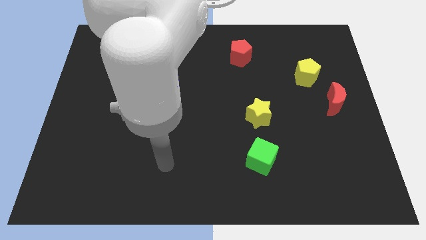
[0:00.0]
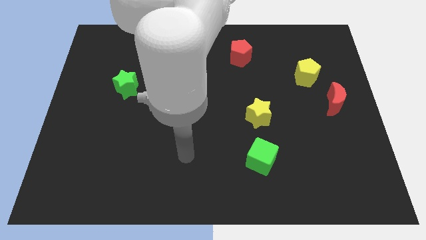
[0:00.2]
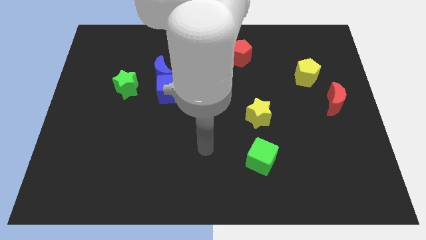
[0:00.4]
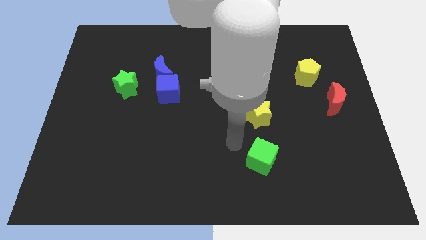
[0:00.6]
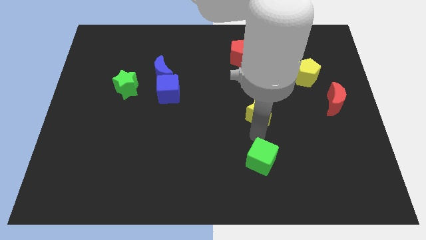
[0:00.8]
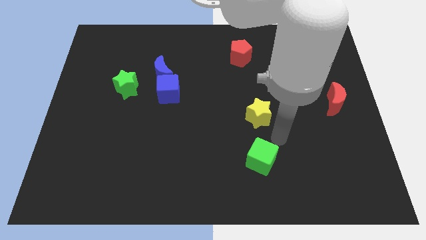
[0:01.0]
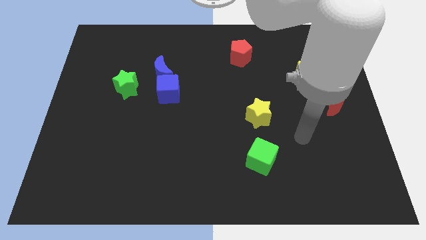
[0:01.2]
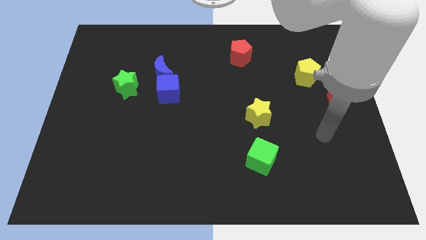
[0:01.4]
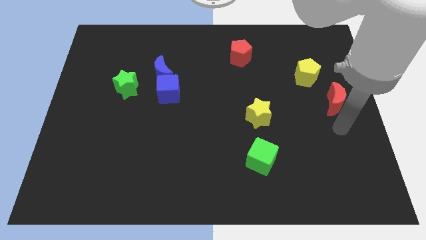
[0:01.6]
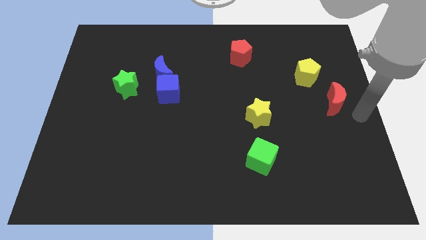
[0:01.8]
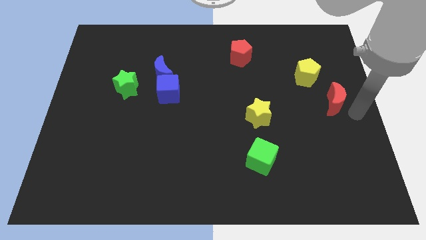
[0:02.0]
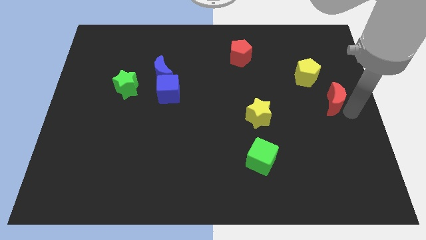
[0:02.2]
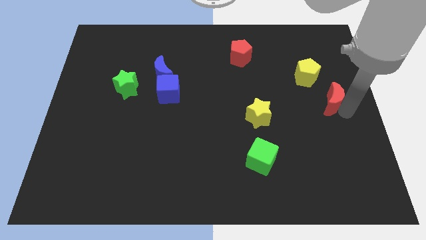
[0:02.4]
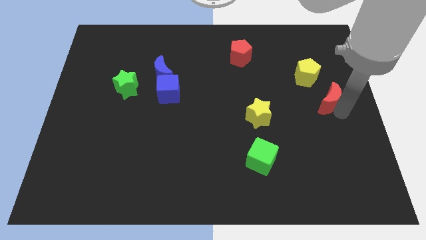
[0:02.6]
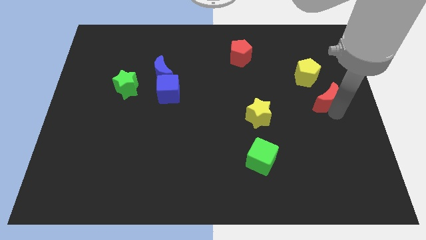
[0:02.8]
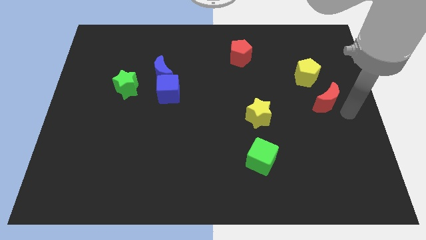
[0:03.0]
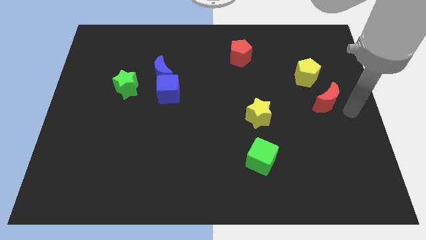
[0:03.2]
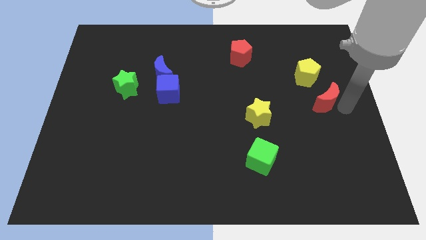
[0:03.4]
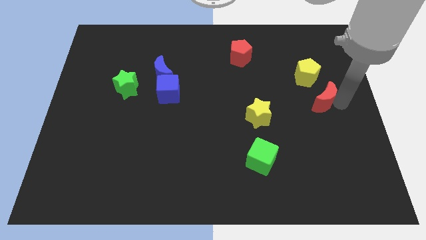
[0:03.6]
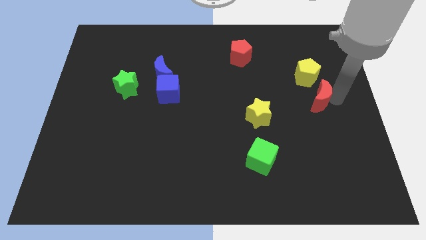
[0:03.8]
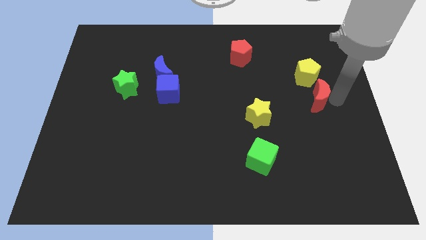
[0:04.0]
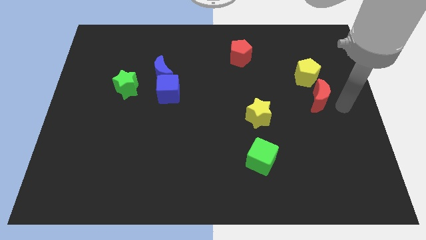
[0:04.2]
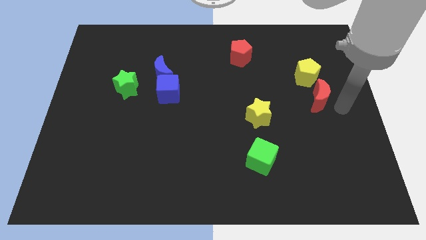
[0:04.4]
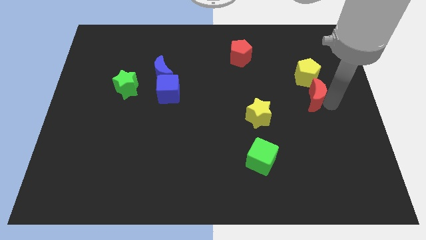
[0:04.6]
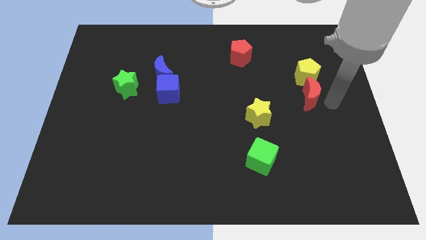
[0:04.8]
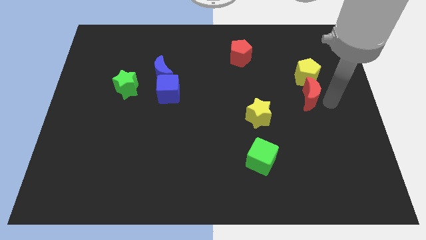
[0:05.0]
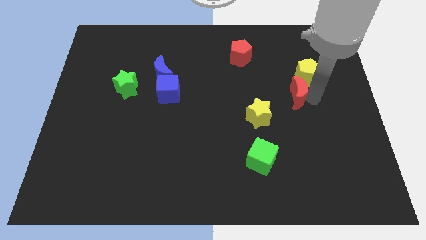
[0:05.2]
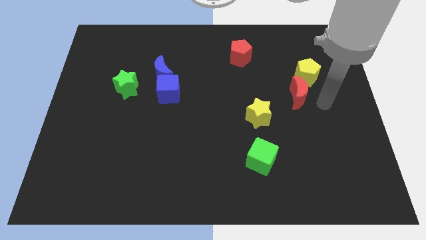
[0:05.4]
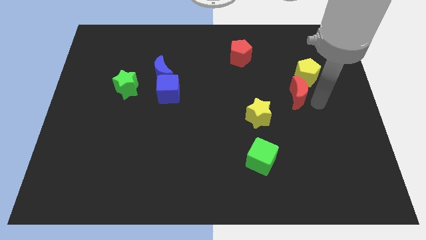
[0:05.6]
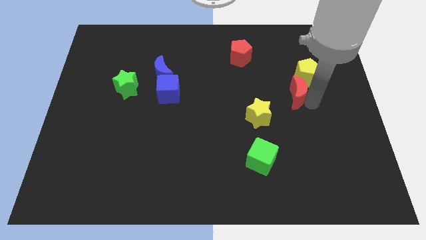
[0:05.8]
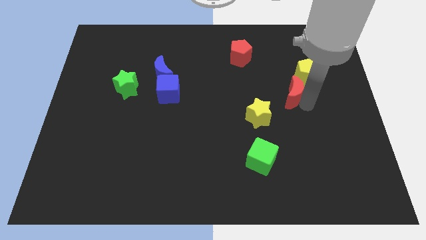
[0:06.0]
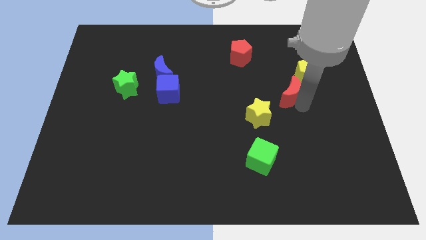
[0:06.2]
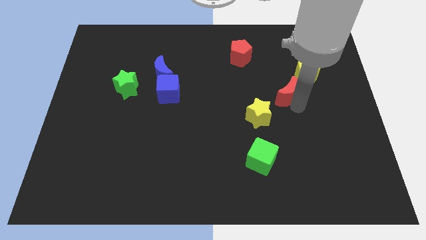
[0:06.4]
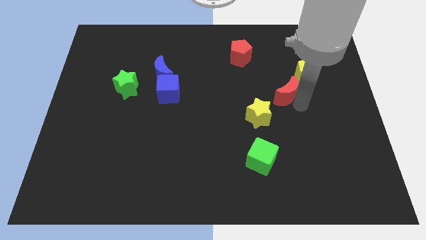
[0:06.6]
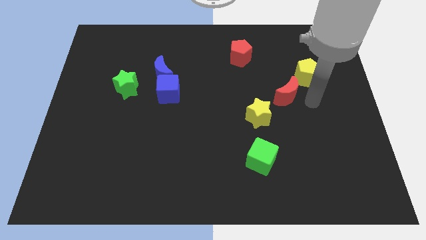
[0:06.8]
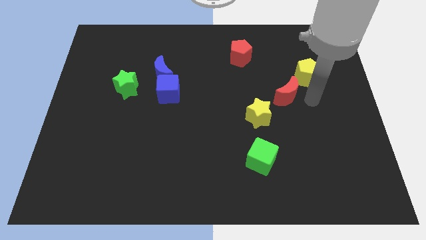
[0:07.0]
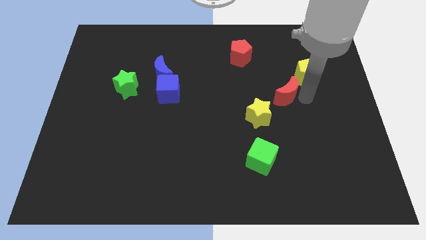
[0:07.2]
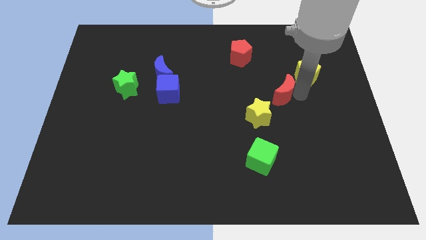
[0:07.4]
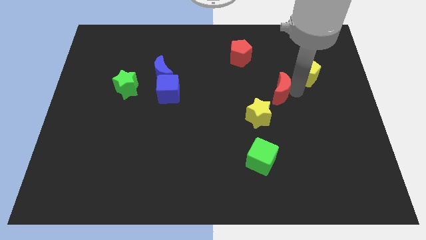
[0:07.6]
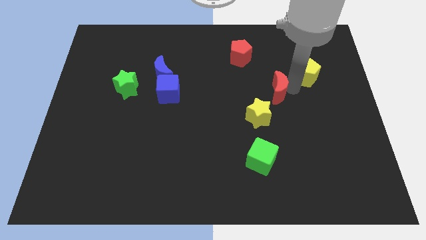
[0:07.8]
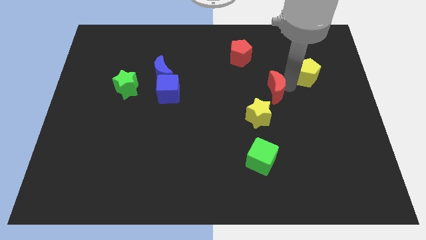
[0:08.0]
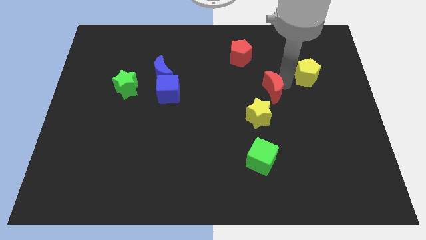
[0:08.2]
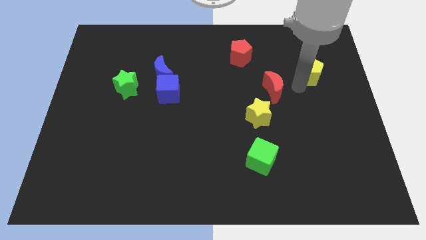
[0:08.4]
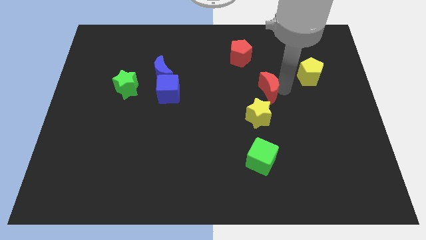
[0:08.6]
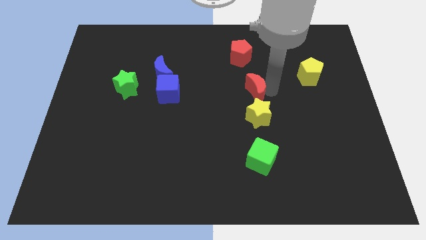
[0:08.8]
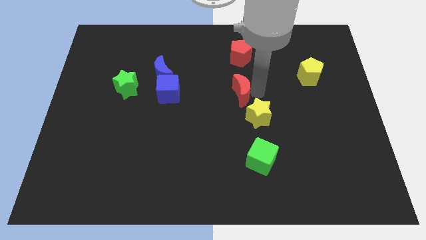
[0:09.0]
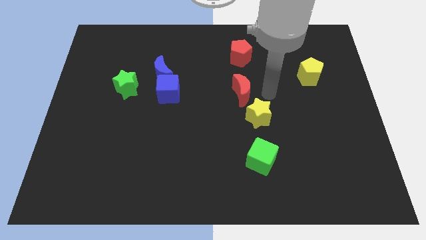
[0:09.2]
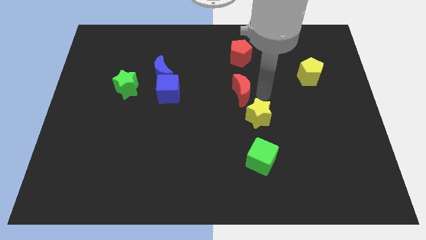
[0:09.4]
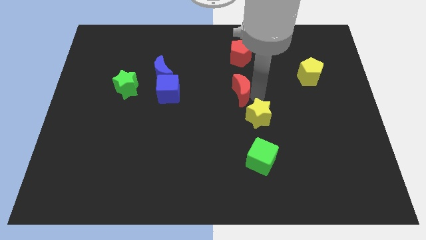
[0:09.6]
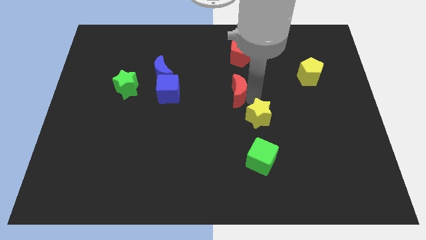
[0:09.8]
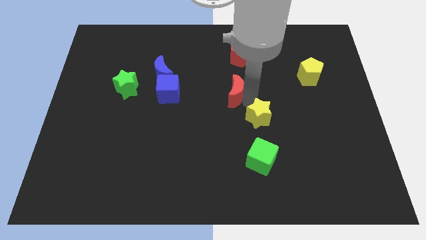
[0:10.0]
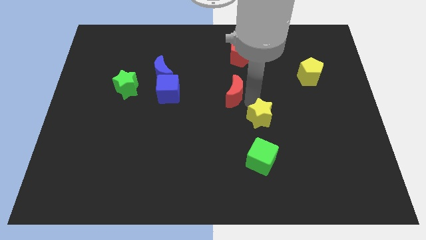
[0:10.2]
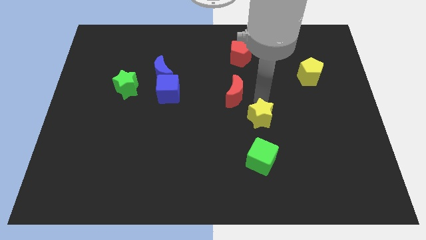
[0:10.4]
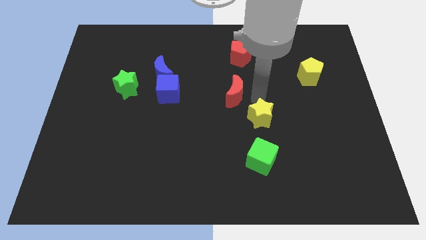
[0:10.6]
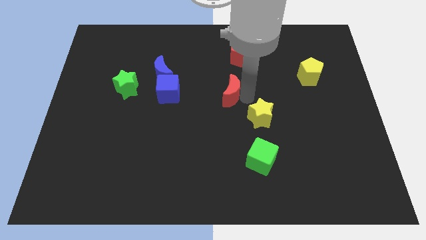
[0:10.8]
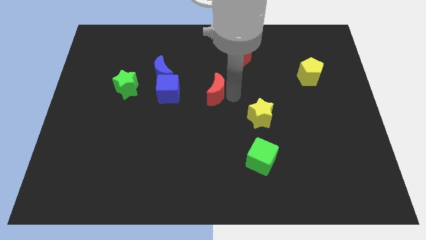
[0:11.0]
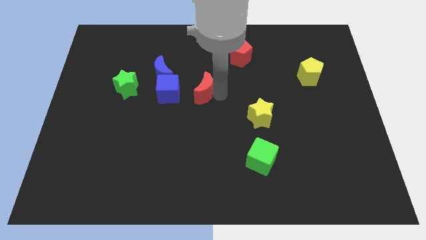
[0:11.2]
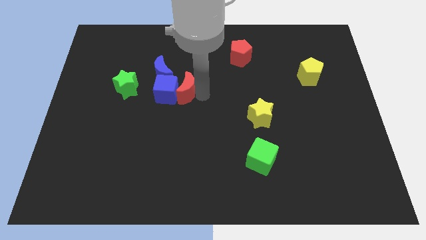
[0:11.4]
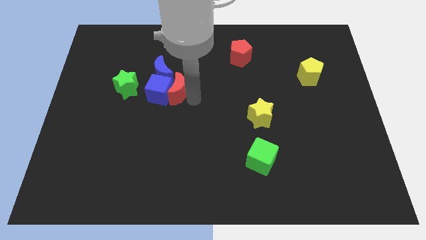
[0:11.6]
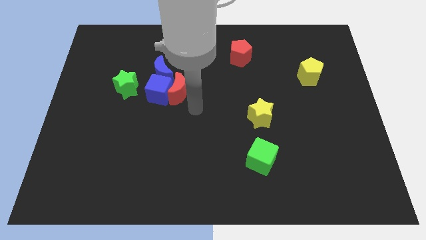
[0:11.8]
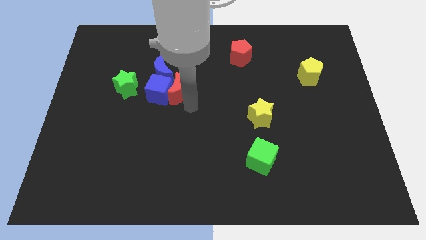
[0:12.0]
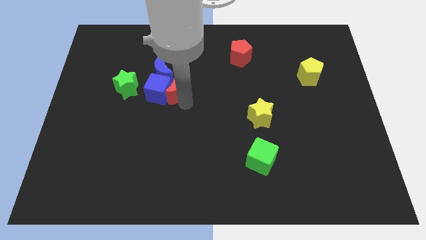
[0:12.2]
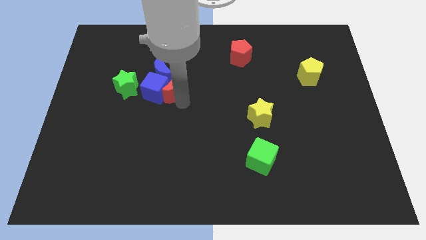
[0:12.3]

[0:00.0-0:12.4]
move the red moon next to the blue moon

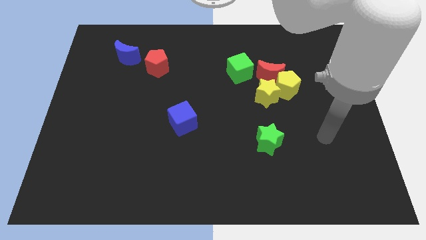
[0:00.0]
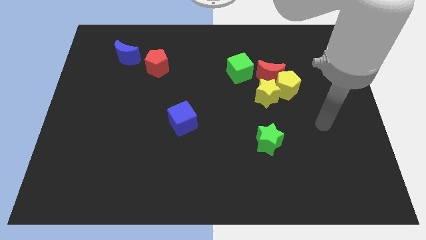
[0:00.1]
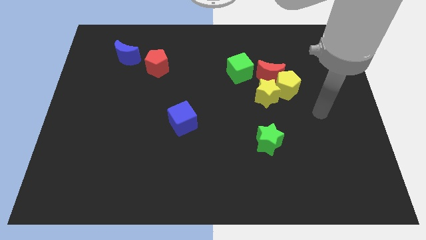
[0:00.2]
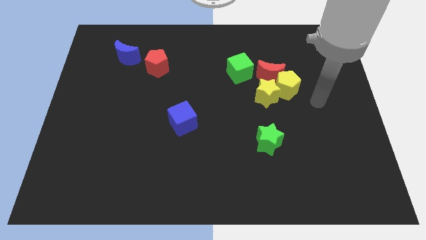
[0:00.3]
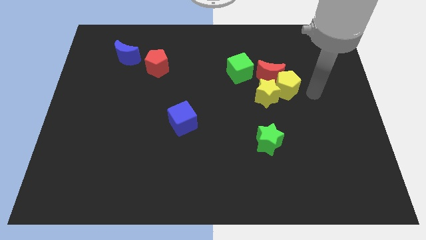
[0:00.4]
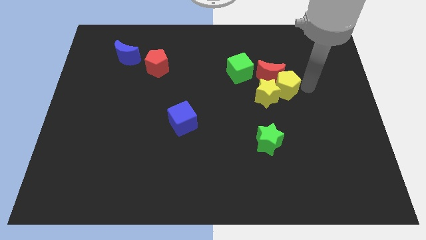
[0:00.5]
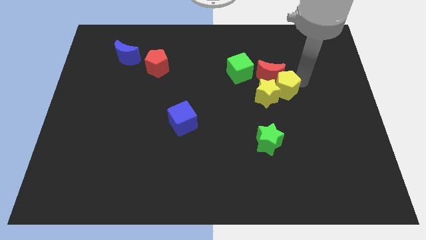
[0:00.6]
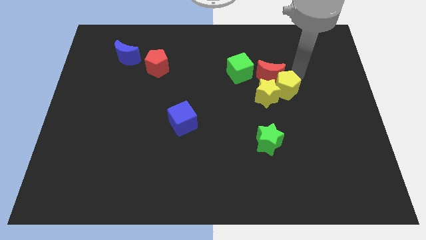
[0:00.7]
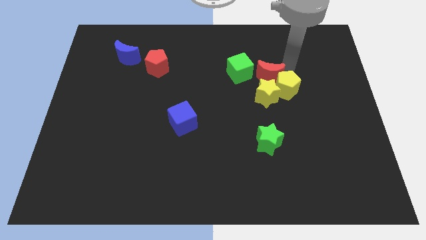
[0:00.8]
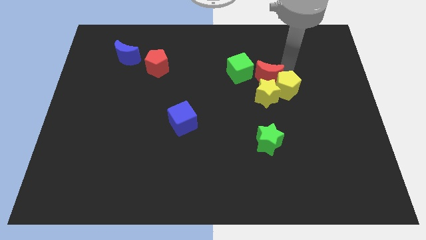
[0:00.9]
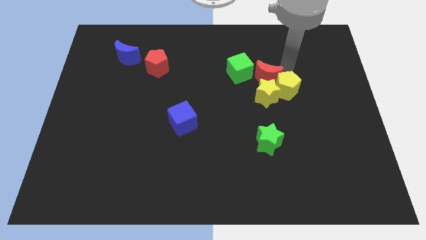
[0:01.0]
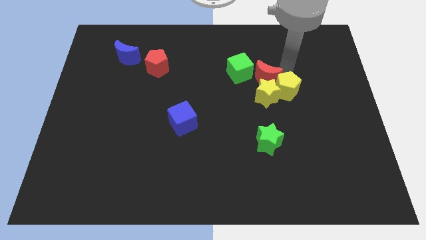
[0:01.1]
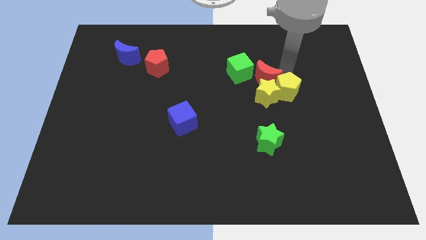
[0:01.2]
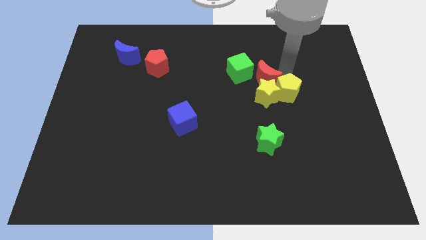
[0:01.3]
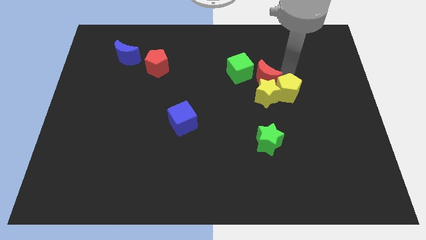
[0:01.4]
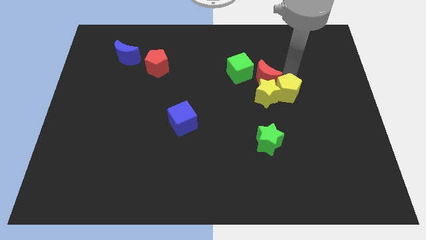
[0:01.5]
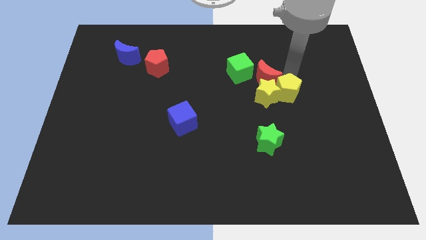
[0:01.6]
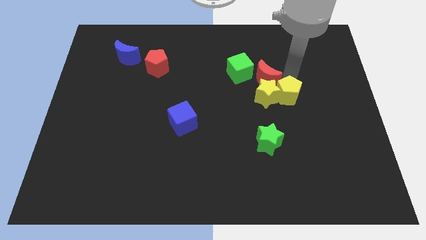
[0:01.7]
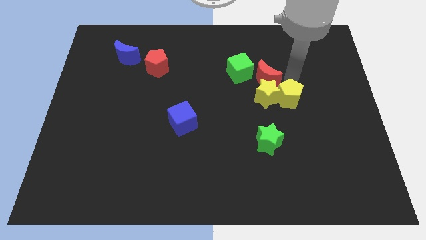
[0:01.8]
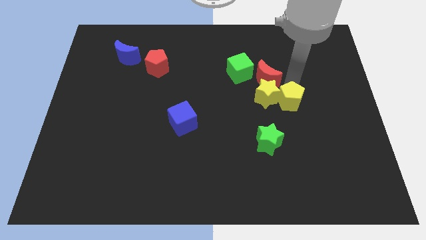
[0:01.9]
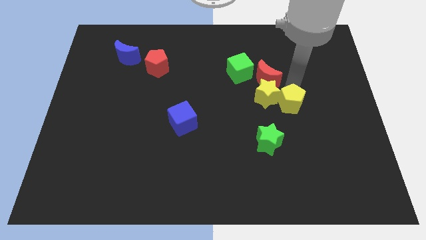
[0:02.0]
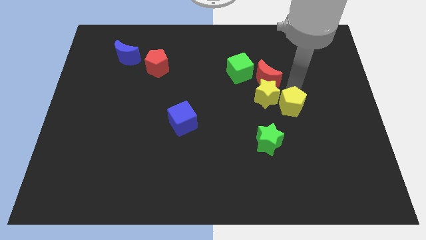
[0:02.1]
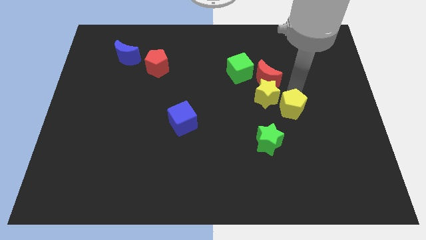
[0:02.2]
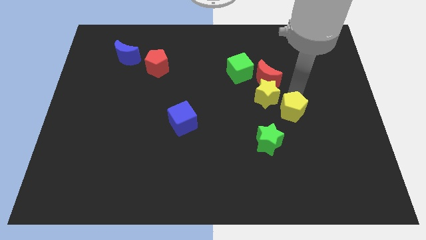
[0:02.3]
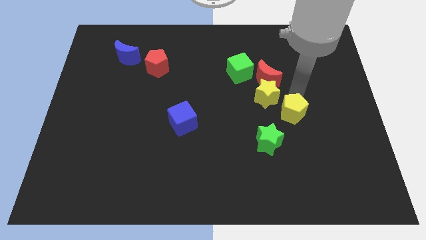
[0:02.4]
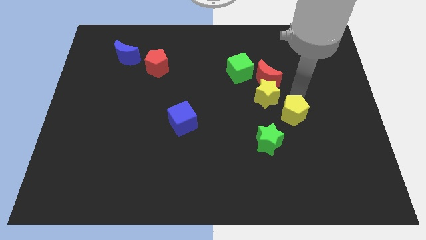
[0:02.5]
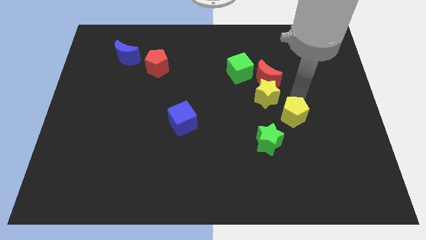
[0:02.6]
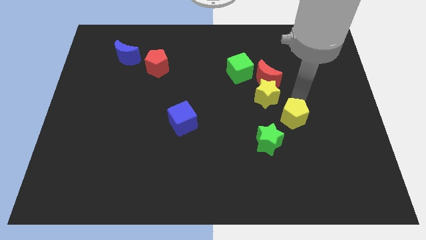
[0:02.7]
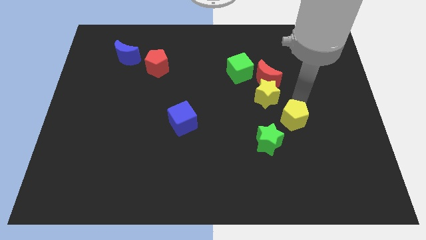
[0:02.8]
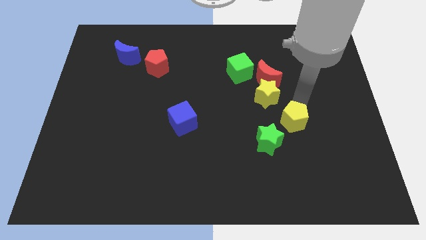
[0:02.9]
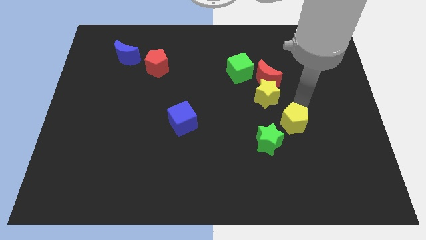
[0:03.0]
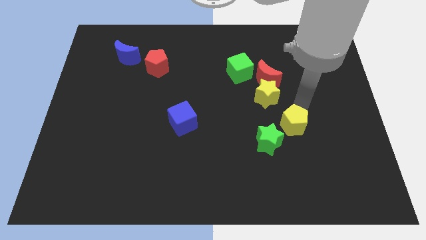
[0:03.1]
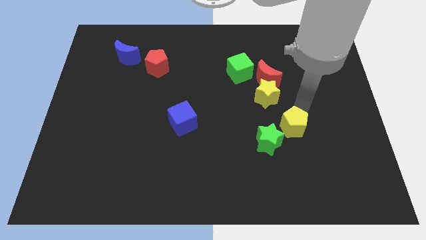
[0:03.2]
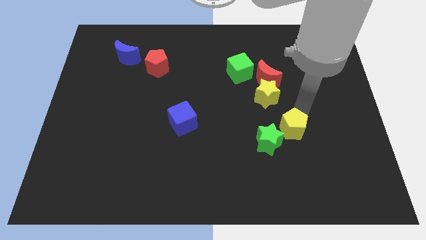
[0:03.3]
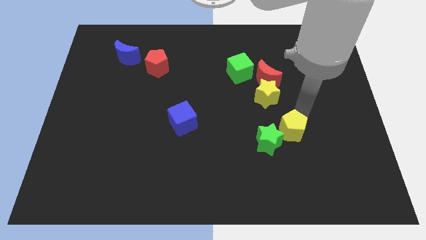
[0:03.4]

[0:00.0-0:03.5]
put the yellow pentagon next to the green star
